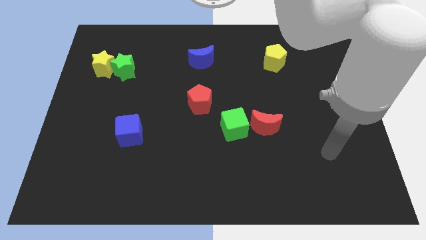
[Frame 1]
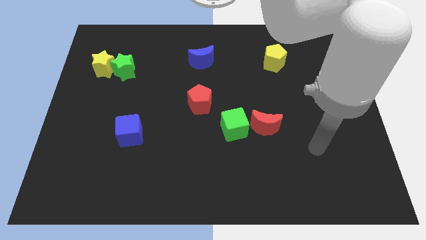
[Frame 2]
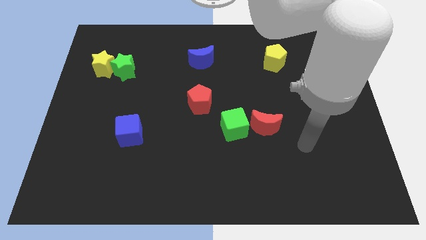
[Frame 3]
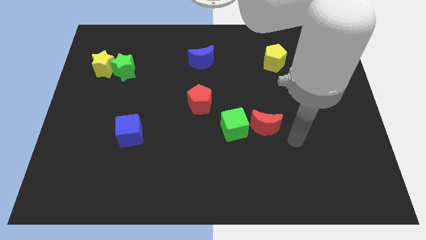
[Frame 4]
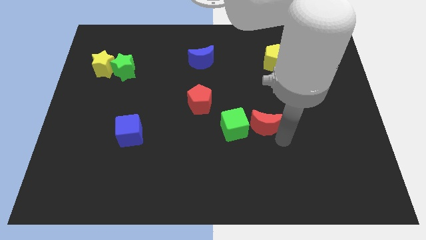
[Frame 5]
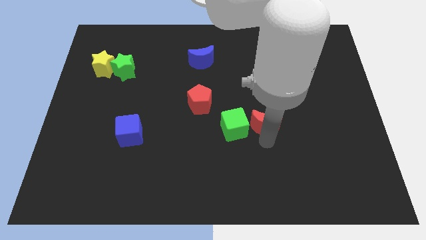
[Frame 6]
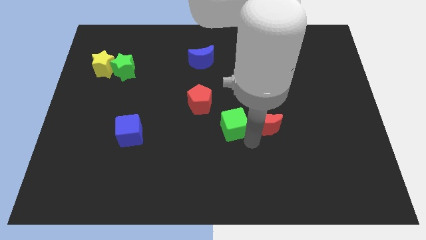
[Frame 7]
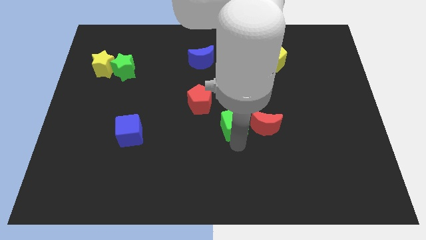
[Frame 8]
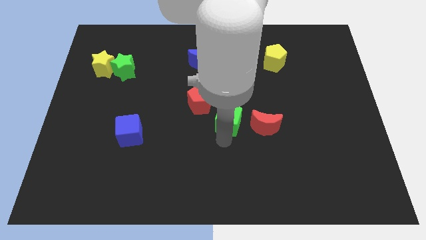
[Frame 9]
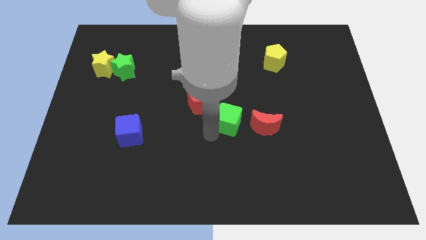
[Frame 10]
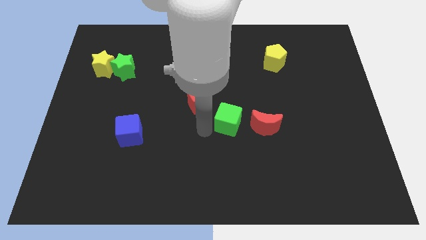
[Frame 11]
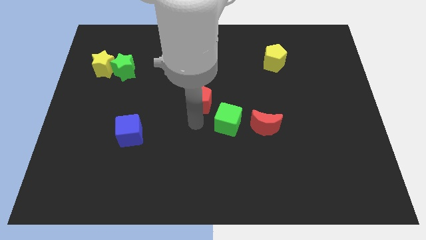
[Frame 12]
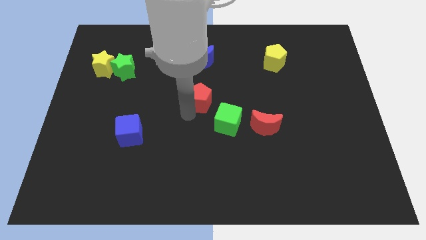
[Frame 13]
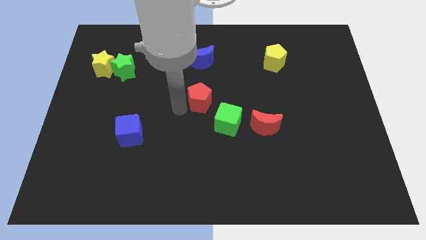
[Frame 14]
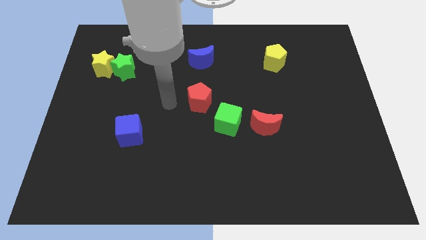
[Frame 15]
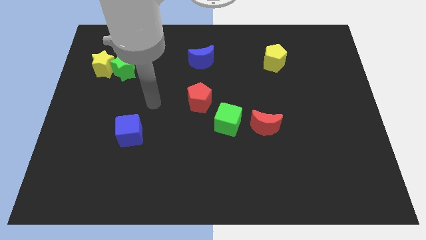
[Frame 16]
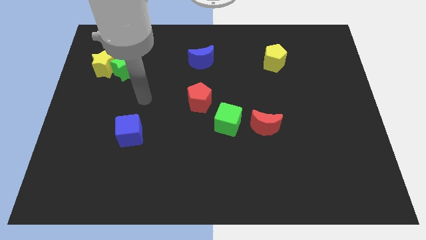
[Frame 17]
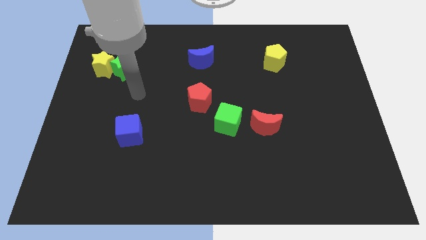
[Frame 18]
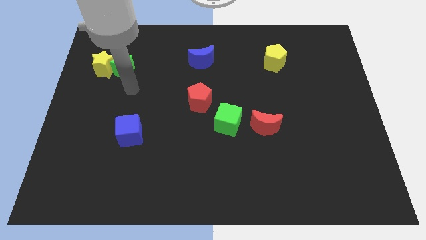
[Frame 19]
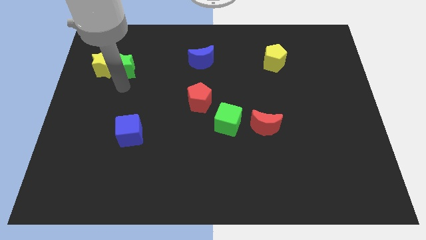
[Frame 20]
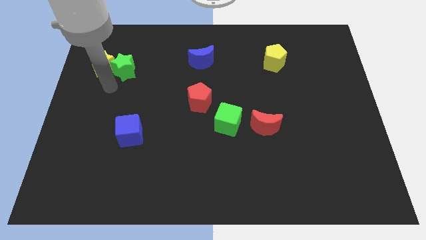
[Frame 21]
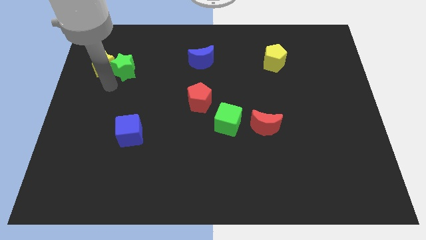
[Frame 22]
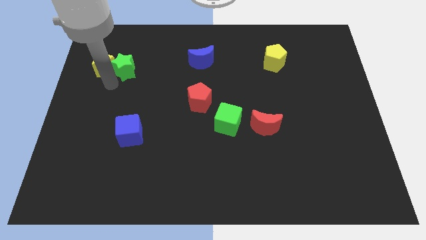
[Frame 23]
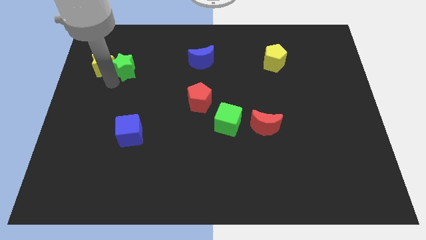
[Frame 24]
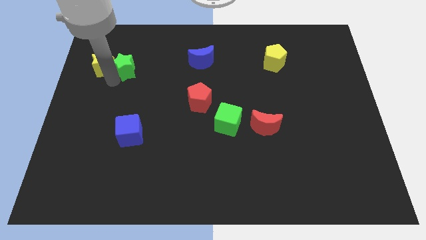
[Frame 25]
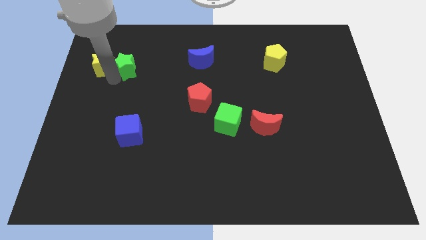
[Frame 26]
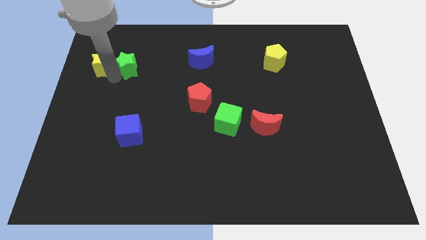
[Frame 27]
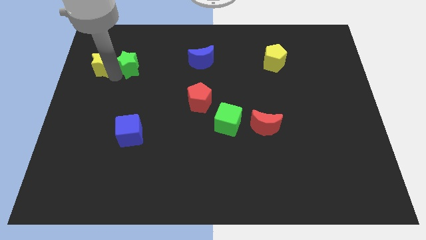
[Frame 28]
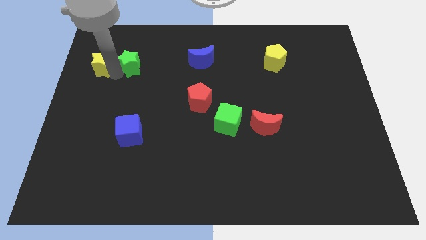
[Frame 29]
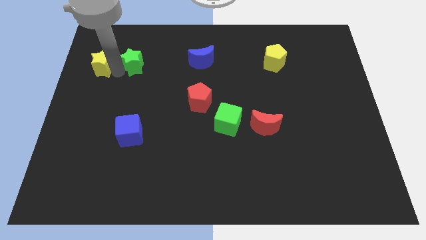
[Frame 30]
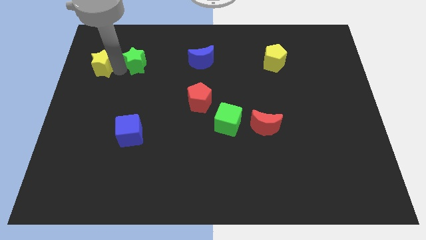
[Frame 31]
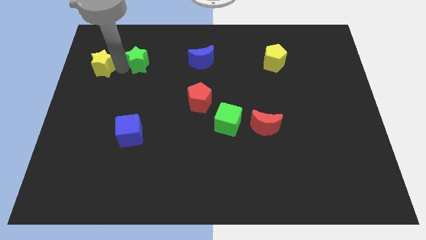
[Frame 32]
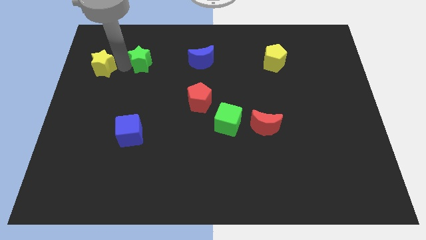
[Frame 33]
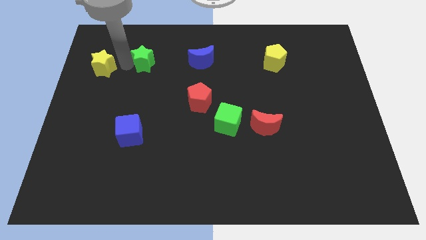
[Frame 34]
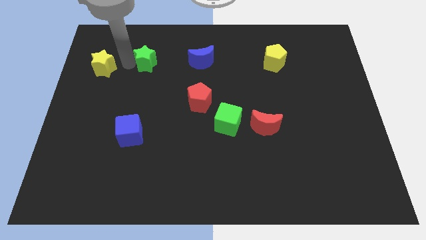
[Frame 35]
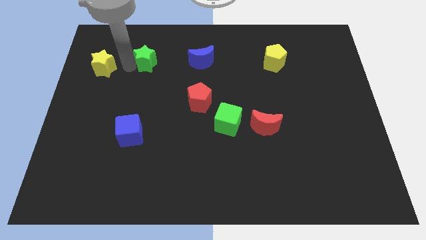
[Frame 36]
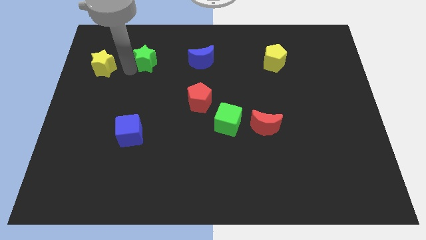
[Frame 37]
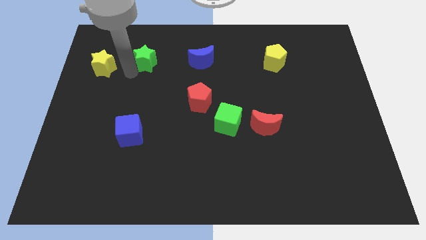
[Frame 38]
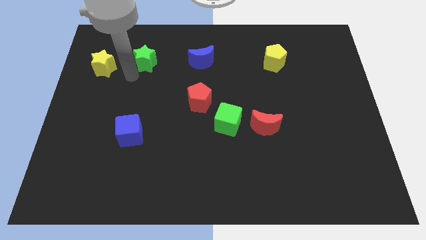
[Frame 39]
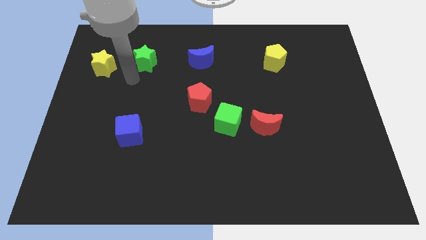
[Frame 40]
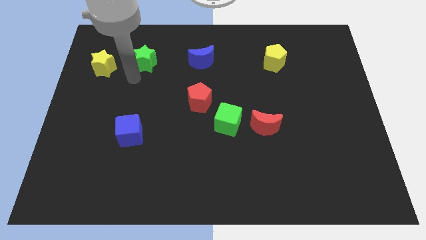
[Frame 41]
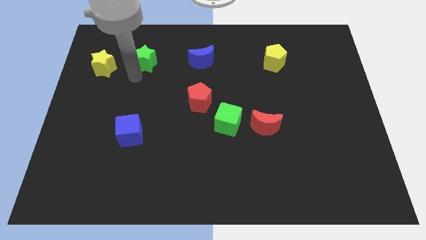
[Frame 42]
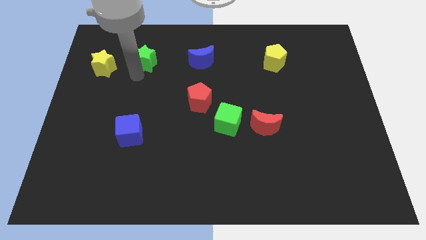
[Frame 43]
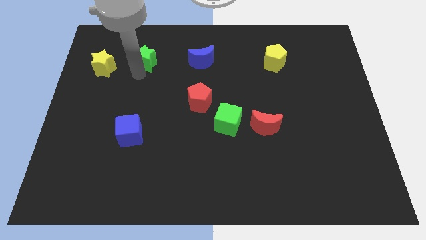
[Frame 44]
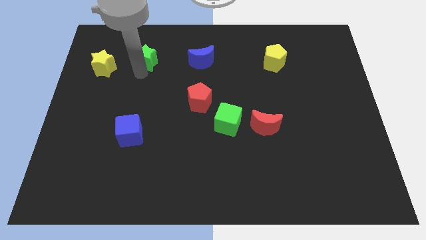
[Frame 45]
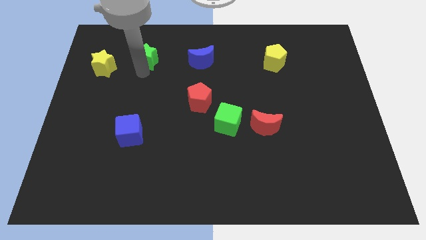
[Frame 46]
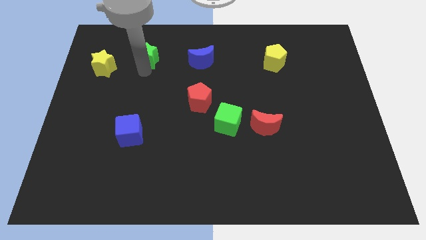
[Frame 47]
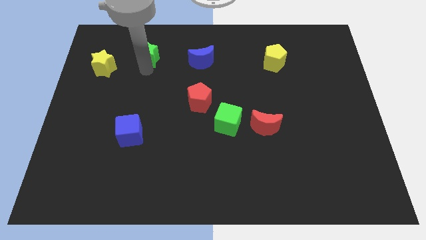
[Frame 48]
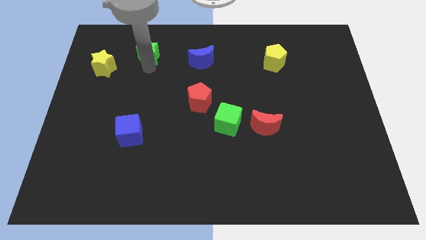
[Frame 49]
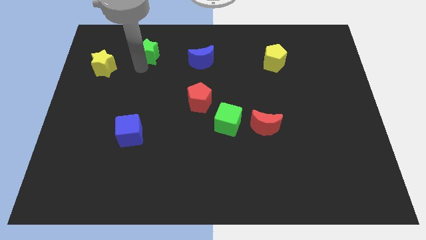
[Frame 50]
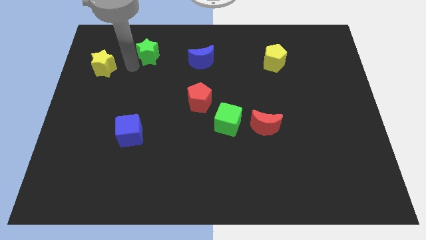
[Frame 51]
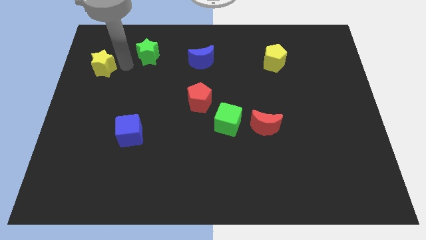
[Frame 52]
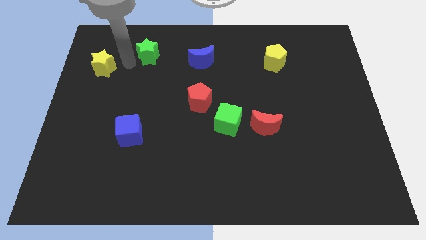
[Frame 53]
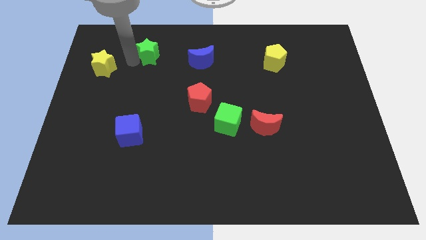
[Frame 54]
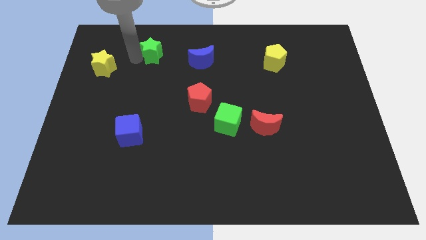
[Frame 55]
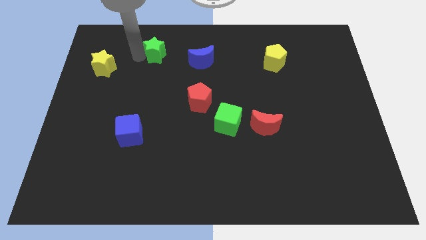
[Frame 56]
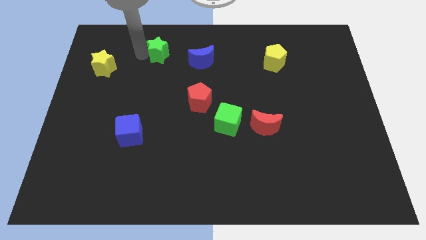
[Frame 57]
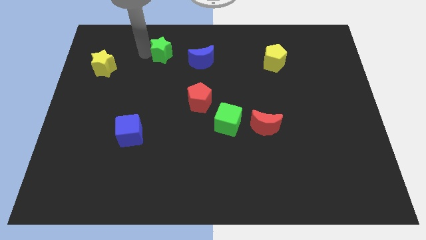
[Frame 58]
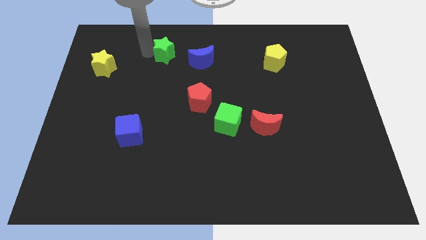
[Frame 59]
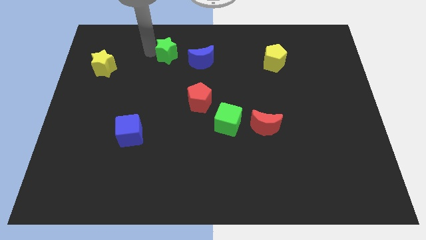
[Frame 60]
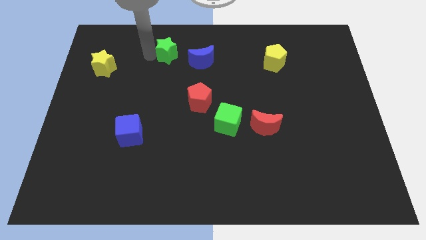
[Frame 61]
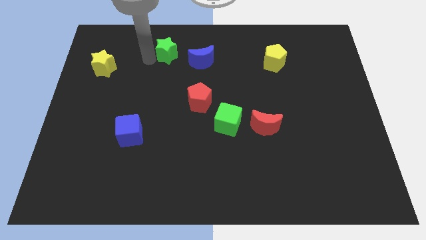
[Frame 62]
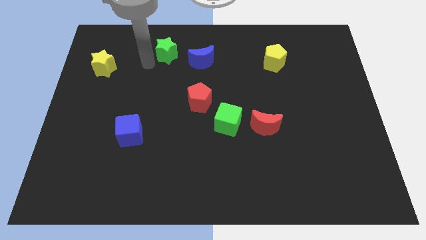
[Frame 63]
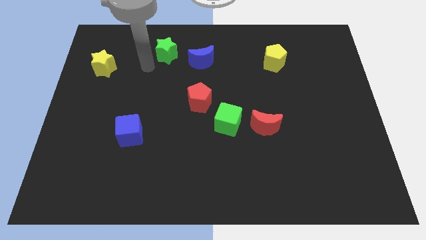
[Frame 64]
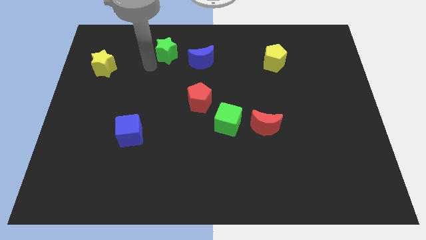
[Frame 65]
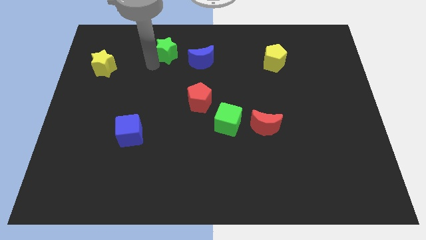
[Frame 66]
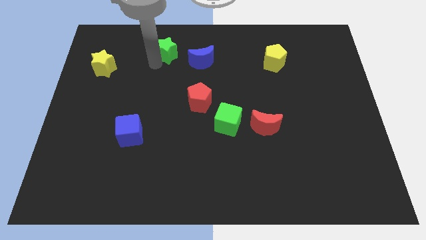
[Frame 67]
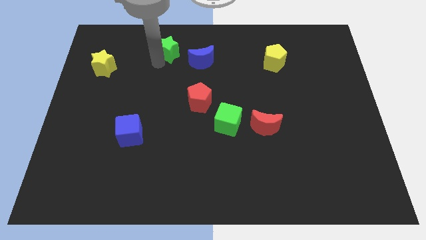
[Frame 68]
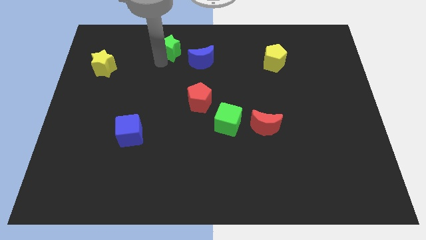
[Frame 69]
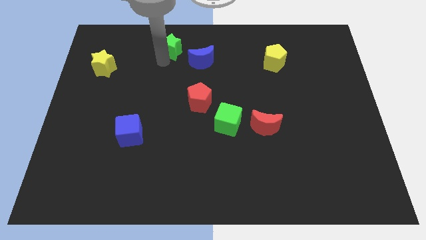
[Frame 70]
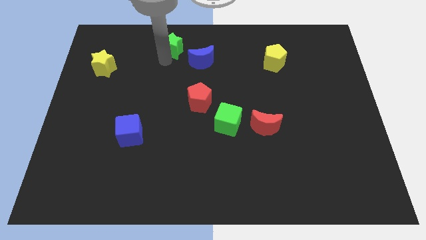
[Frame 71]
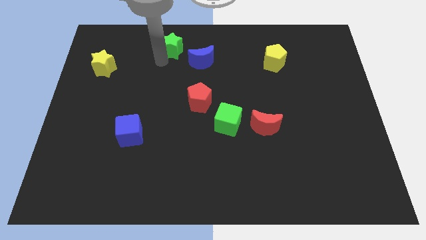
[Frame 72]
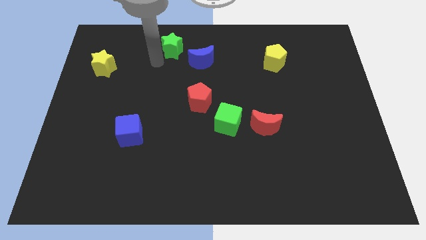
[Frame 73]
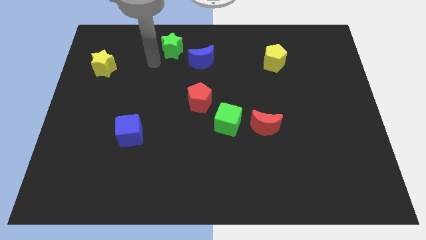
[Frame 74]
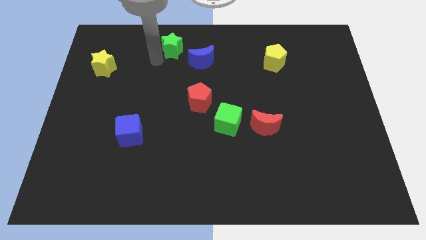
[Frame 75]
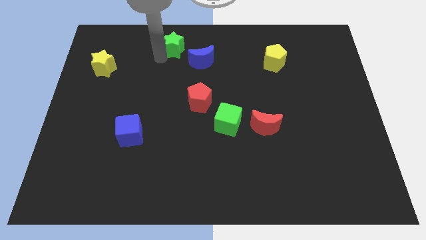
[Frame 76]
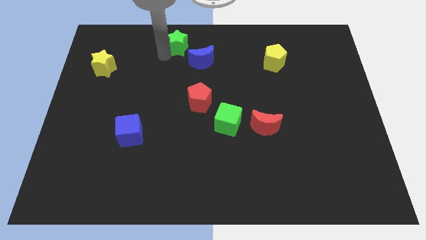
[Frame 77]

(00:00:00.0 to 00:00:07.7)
move the green star to the top side
